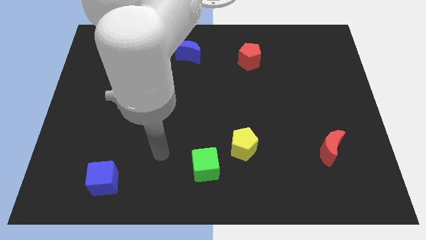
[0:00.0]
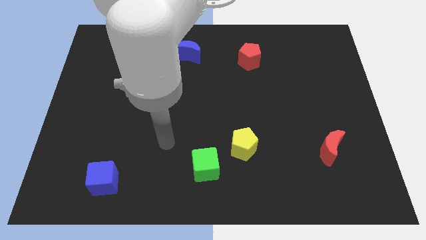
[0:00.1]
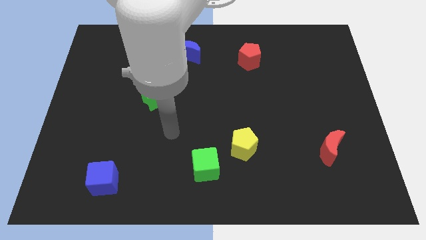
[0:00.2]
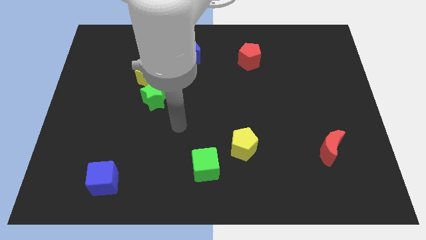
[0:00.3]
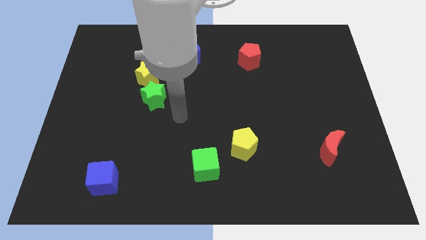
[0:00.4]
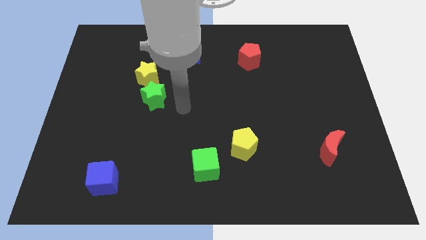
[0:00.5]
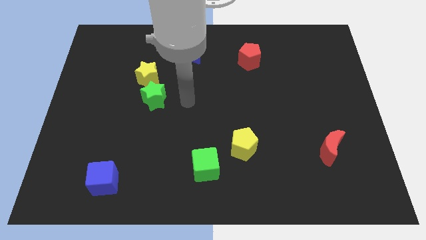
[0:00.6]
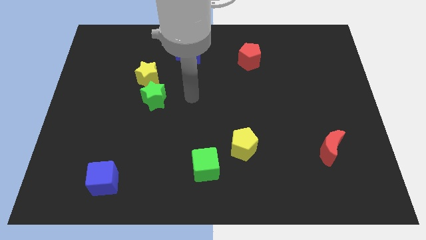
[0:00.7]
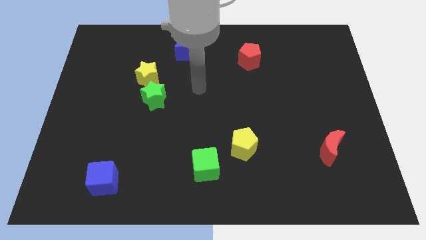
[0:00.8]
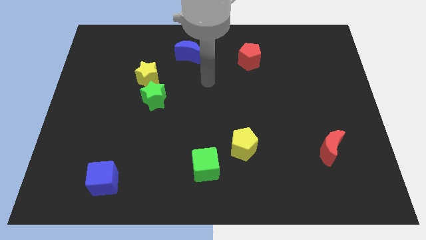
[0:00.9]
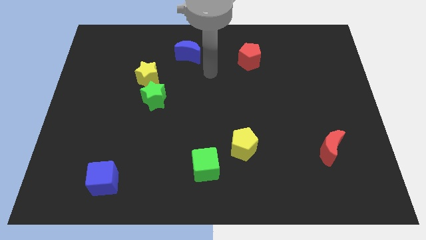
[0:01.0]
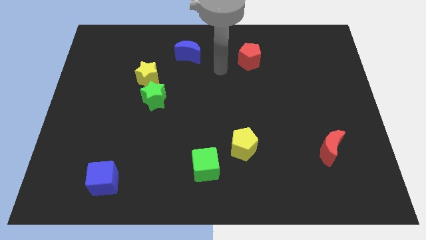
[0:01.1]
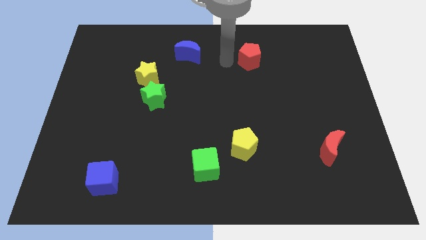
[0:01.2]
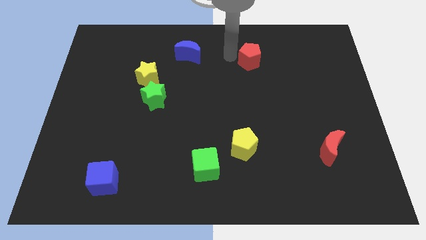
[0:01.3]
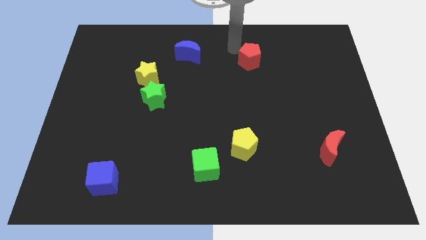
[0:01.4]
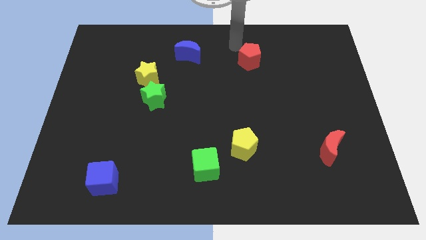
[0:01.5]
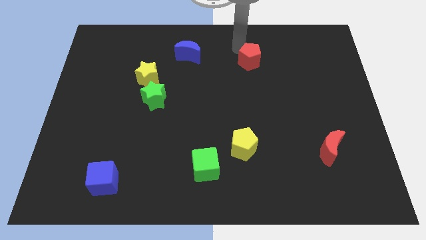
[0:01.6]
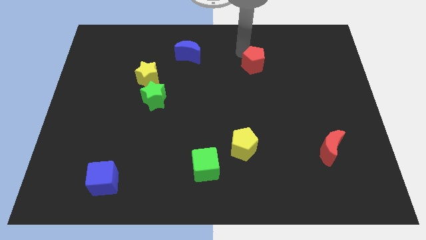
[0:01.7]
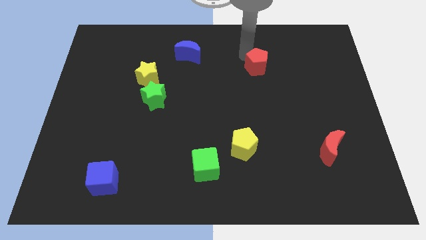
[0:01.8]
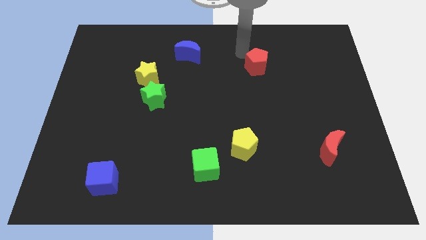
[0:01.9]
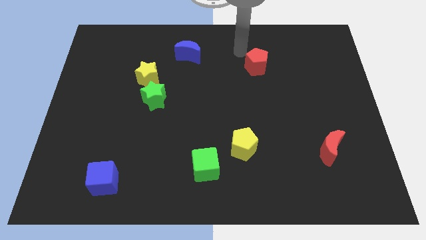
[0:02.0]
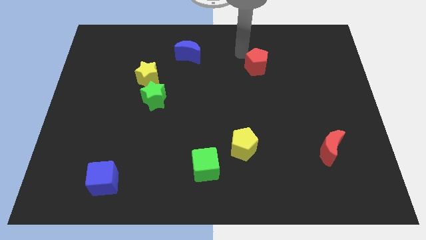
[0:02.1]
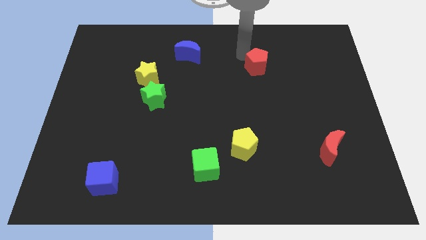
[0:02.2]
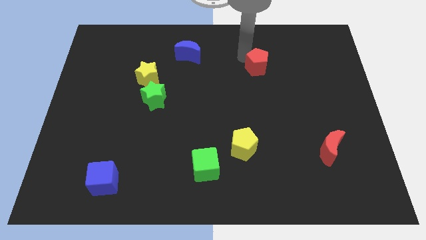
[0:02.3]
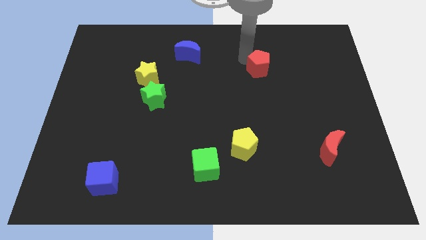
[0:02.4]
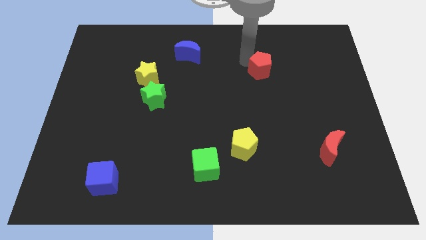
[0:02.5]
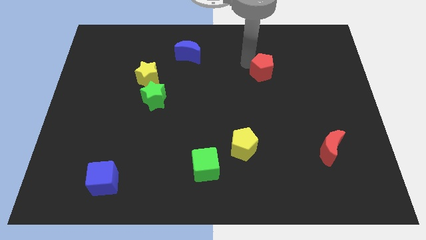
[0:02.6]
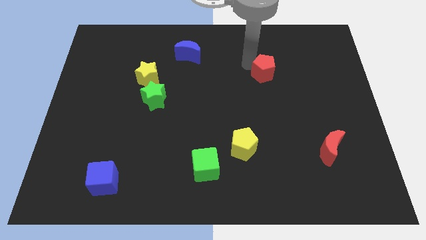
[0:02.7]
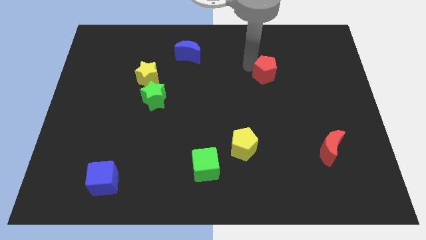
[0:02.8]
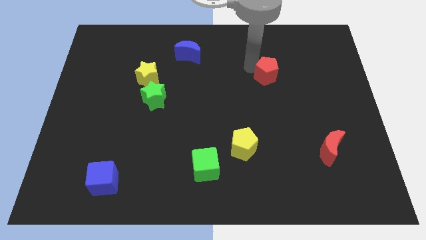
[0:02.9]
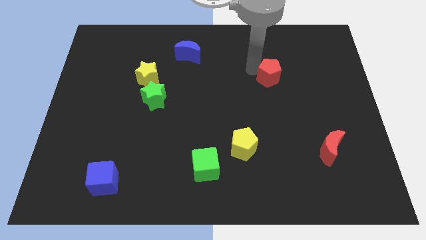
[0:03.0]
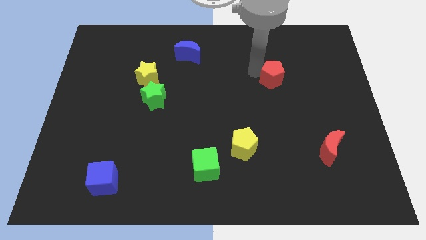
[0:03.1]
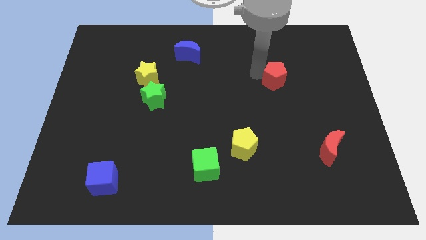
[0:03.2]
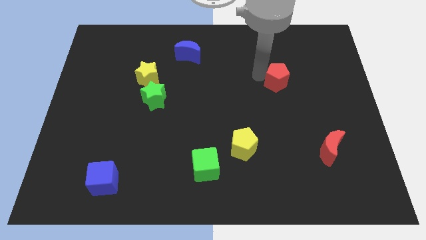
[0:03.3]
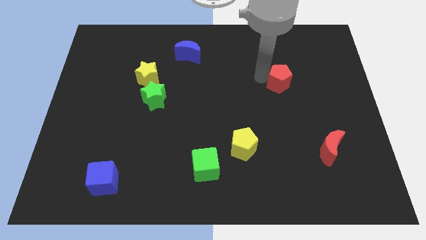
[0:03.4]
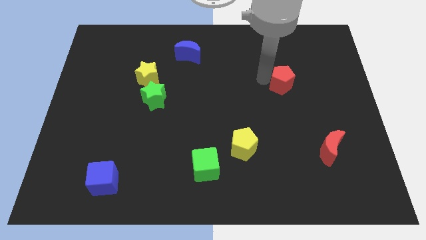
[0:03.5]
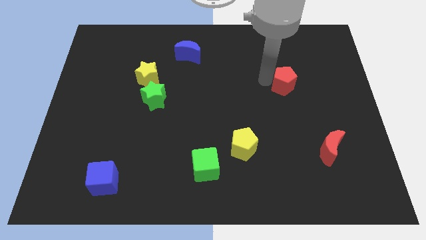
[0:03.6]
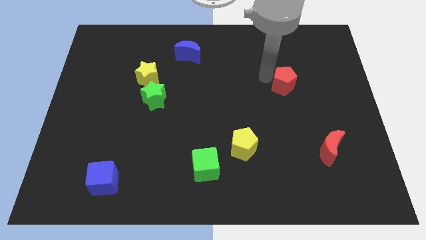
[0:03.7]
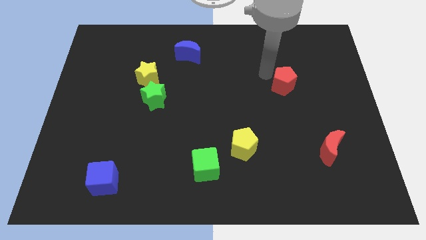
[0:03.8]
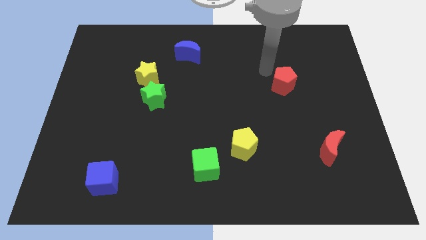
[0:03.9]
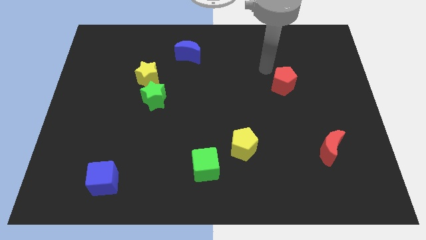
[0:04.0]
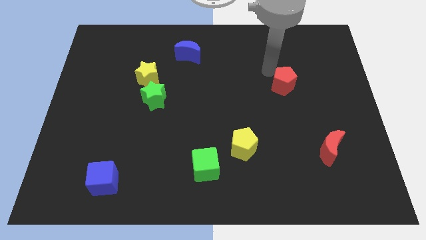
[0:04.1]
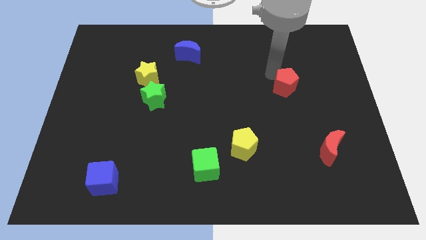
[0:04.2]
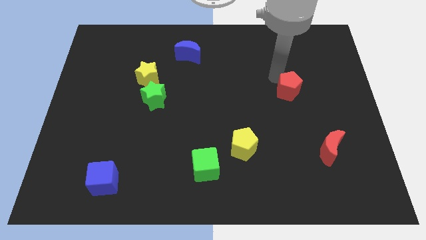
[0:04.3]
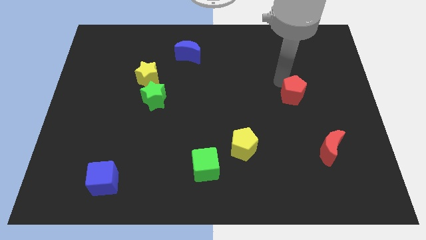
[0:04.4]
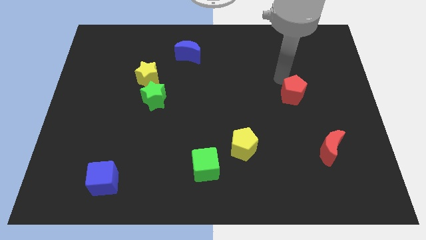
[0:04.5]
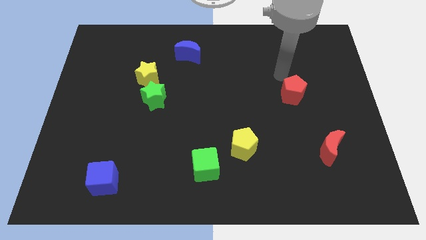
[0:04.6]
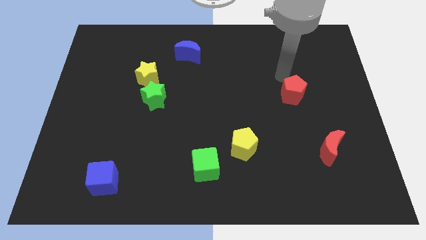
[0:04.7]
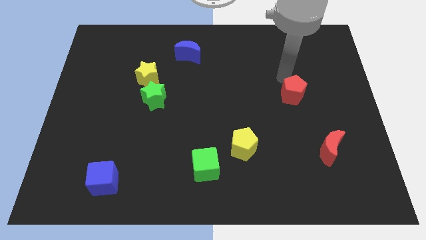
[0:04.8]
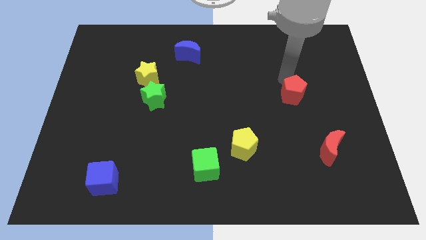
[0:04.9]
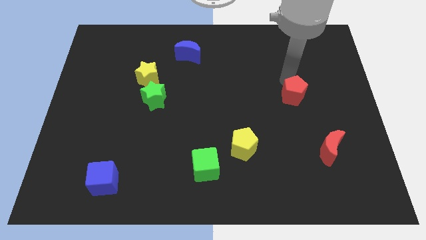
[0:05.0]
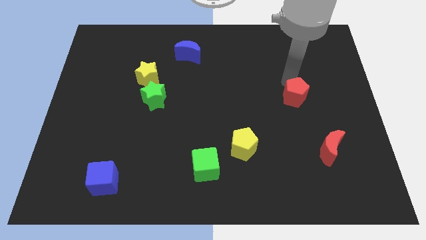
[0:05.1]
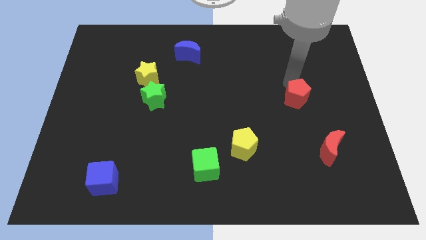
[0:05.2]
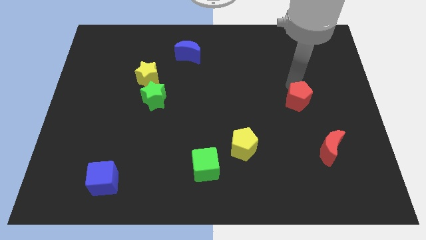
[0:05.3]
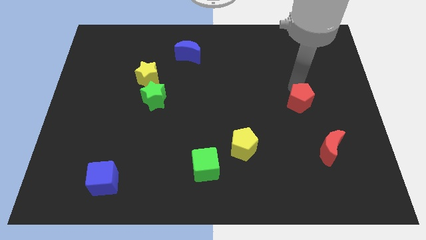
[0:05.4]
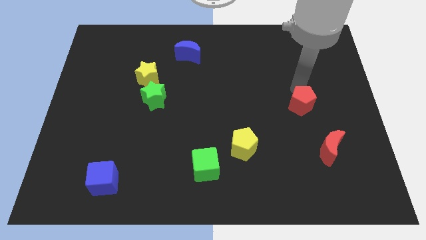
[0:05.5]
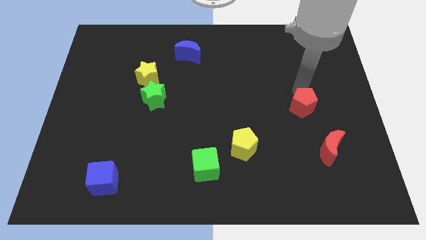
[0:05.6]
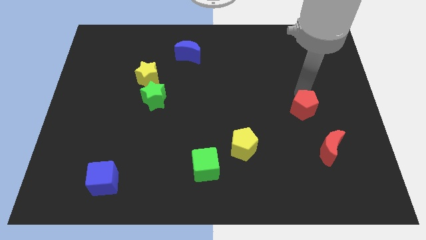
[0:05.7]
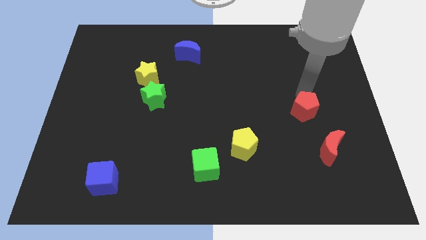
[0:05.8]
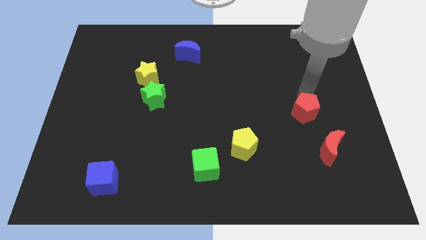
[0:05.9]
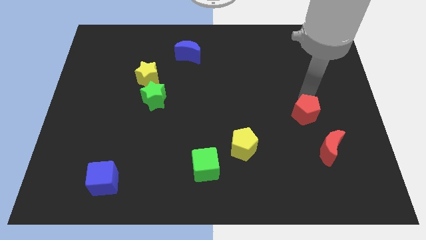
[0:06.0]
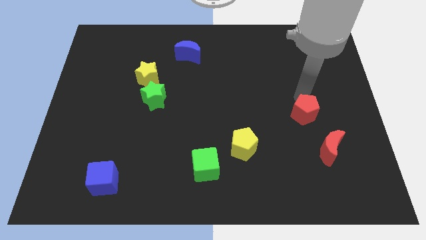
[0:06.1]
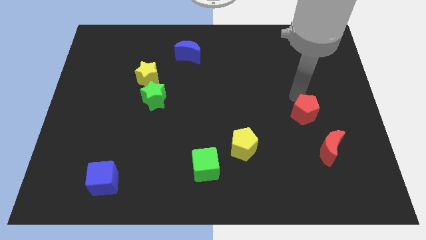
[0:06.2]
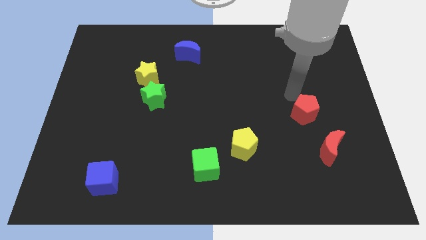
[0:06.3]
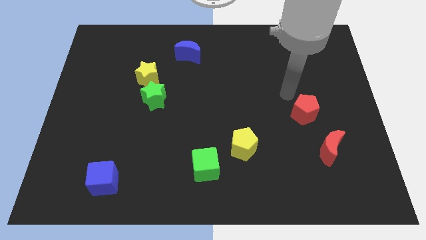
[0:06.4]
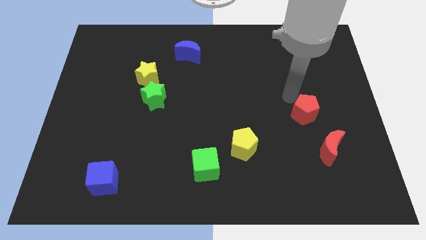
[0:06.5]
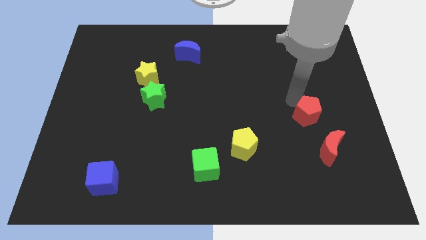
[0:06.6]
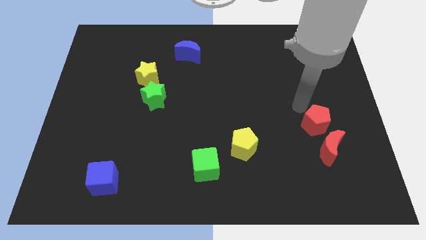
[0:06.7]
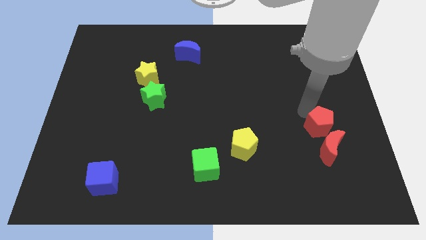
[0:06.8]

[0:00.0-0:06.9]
slide the red pentagon close to the red moon
